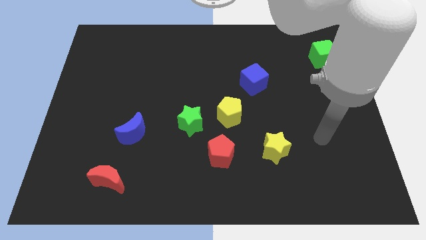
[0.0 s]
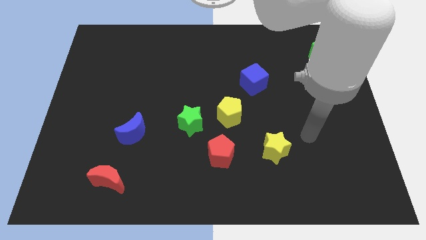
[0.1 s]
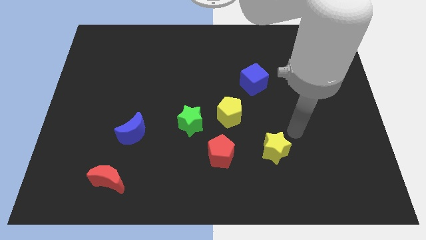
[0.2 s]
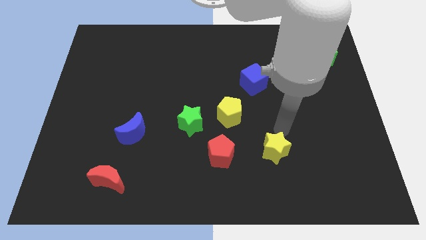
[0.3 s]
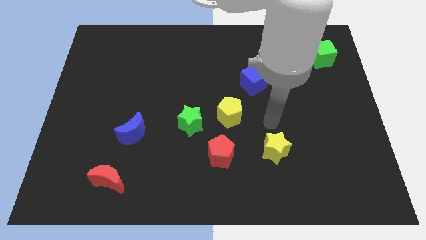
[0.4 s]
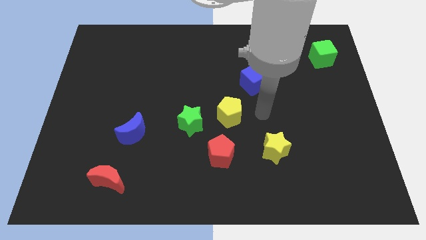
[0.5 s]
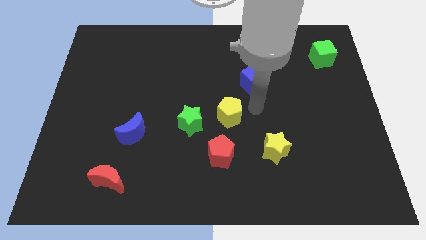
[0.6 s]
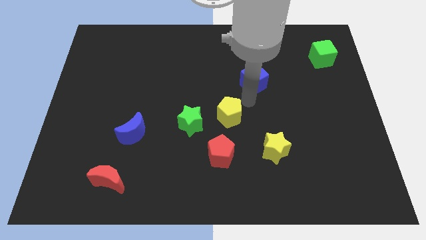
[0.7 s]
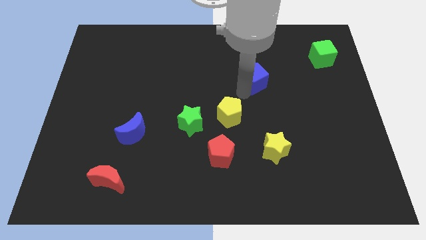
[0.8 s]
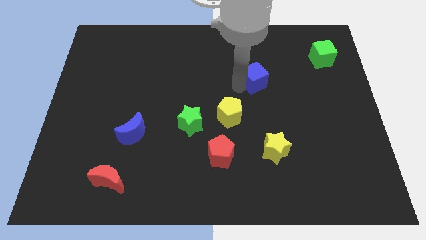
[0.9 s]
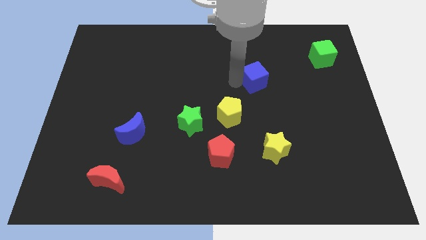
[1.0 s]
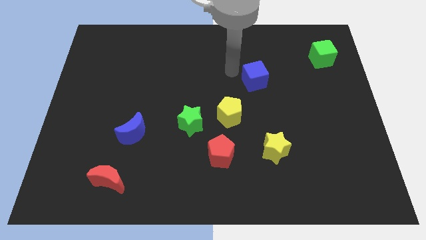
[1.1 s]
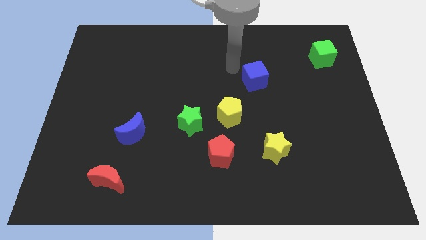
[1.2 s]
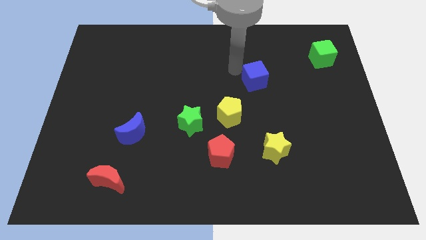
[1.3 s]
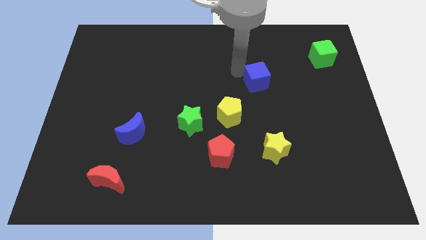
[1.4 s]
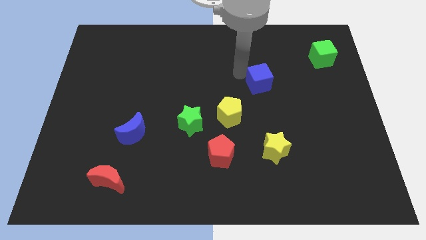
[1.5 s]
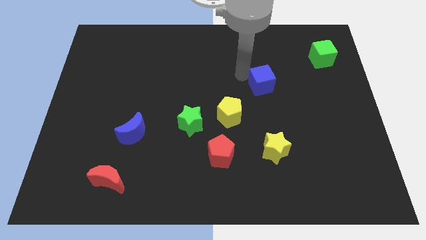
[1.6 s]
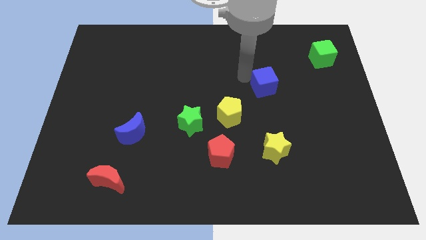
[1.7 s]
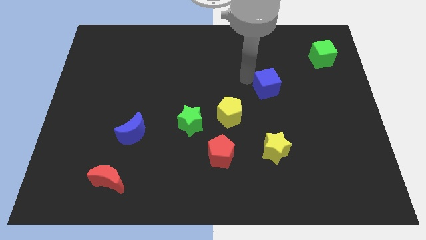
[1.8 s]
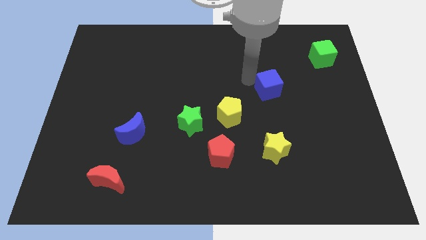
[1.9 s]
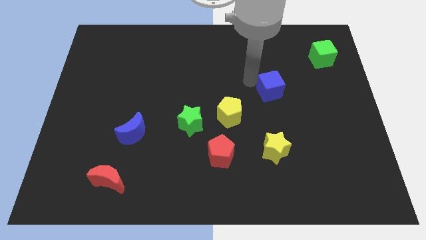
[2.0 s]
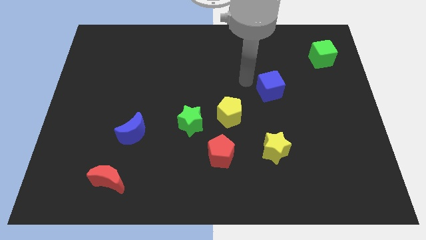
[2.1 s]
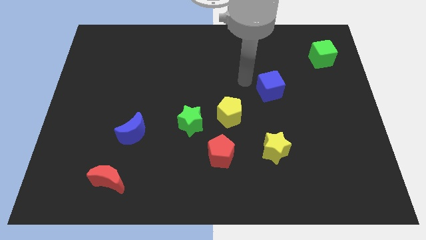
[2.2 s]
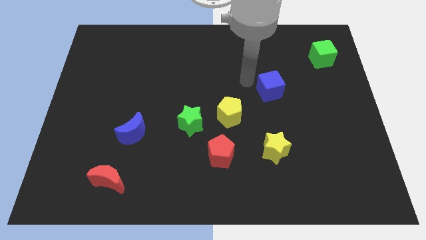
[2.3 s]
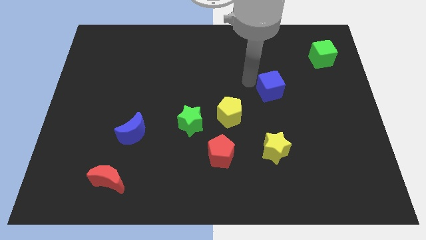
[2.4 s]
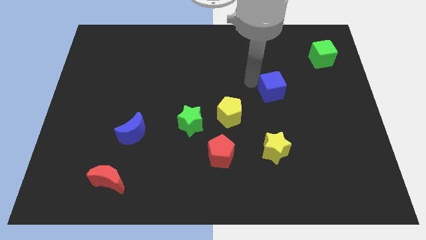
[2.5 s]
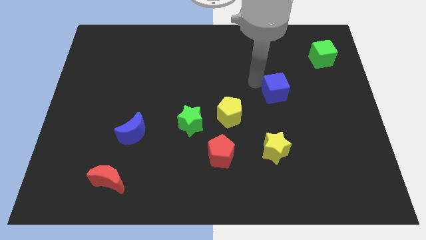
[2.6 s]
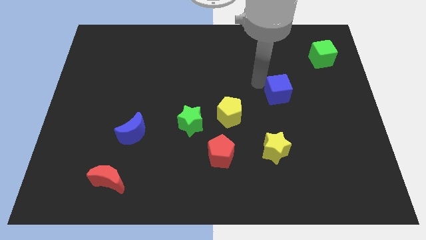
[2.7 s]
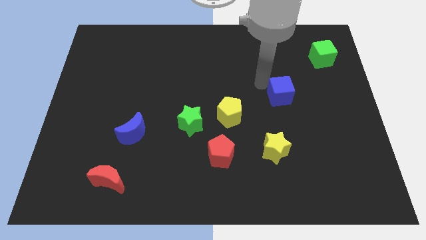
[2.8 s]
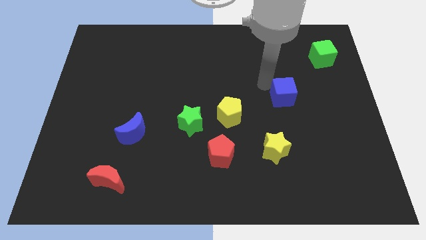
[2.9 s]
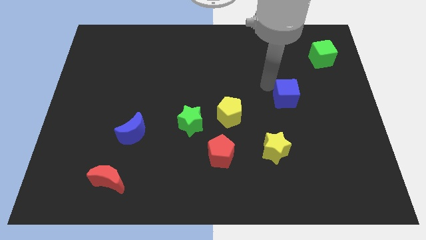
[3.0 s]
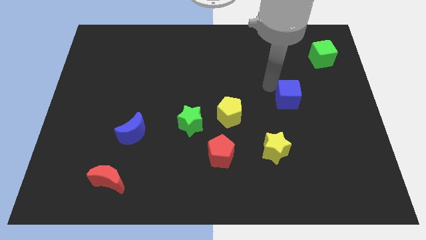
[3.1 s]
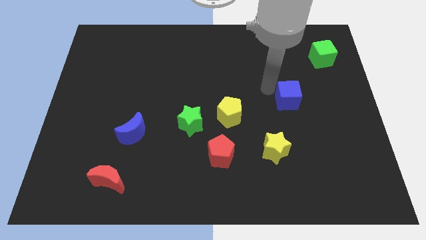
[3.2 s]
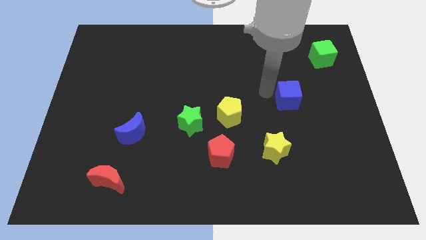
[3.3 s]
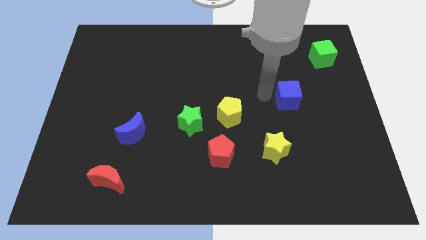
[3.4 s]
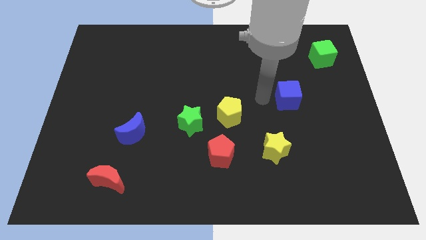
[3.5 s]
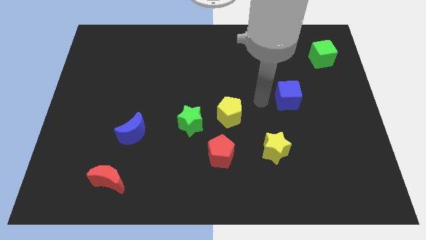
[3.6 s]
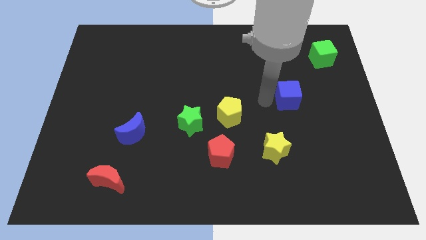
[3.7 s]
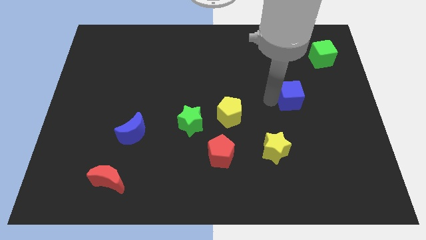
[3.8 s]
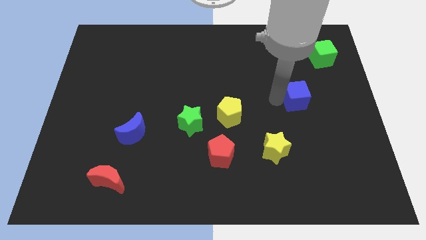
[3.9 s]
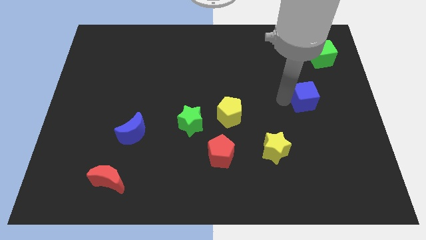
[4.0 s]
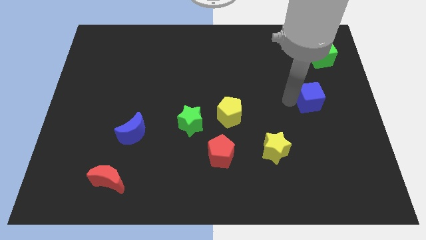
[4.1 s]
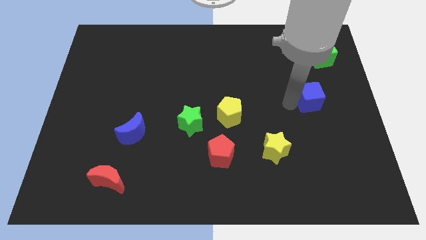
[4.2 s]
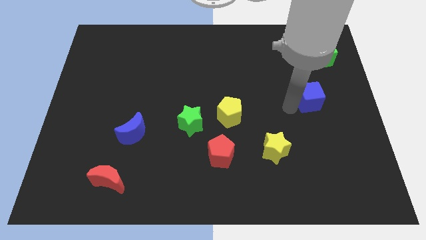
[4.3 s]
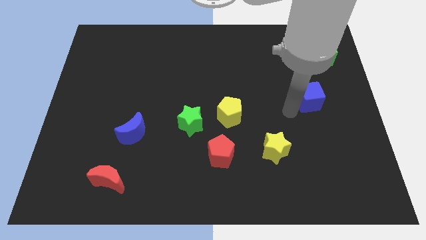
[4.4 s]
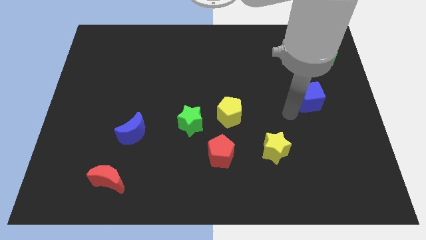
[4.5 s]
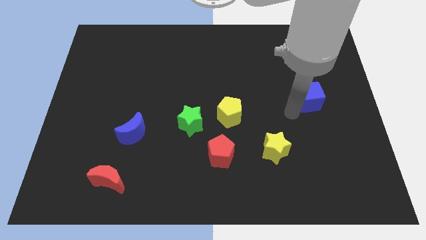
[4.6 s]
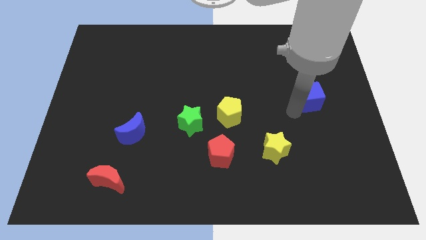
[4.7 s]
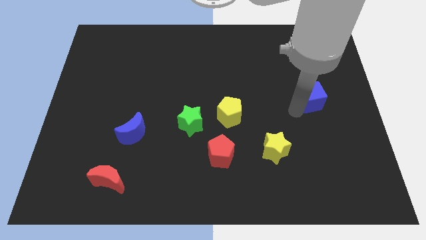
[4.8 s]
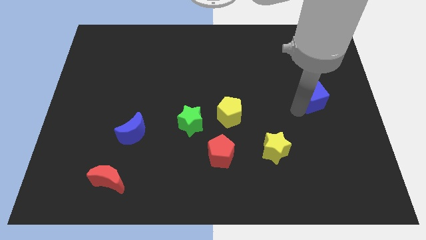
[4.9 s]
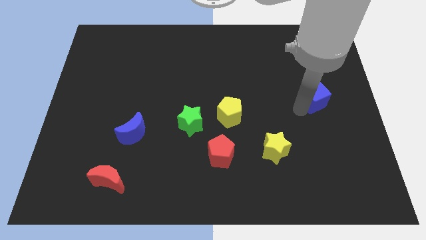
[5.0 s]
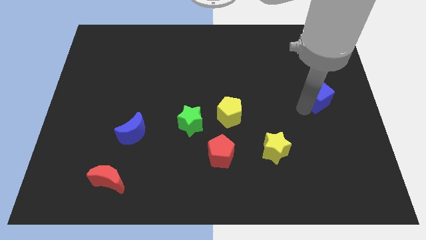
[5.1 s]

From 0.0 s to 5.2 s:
push the blue cube to the right side of the board

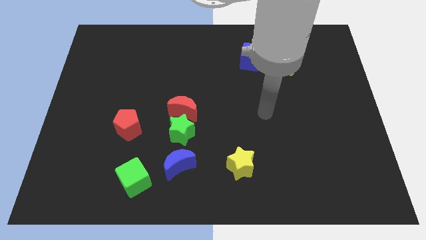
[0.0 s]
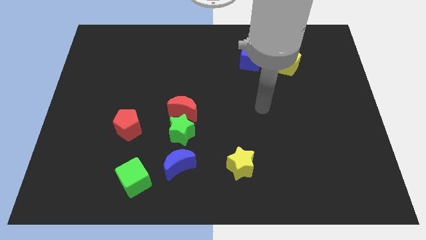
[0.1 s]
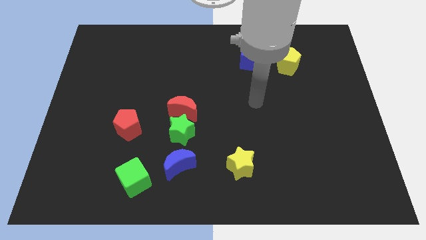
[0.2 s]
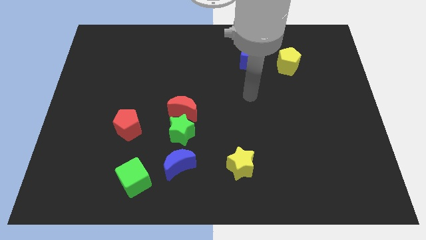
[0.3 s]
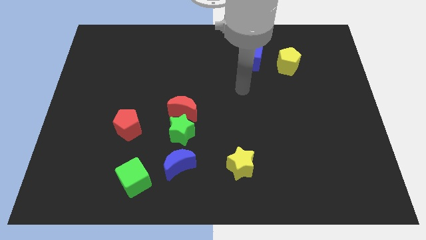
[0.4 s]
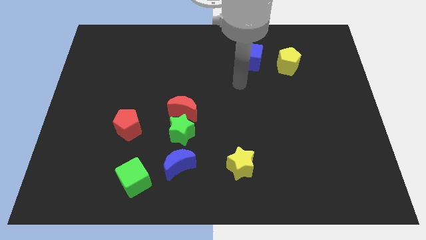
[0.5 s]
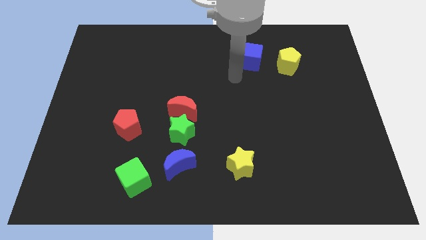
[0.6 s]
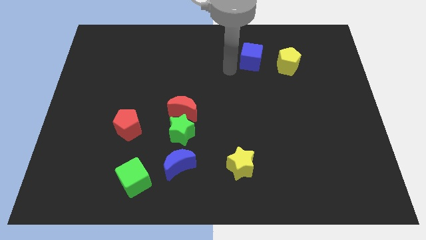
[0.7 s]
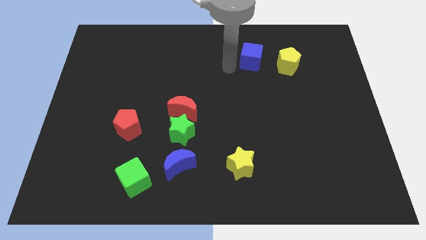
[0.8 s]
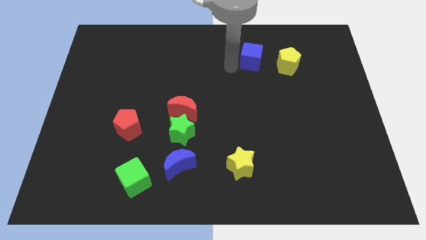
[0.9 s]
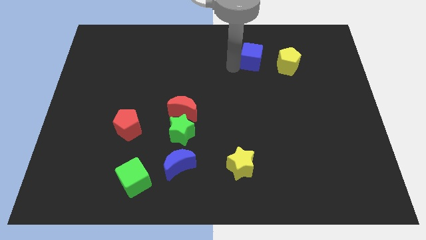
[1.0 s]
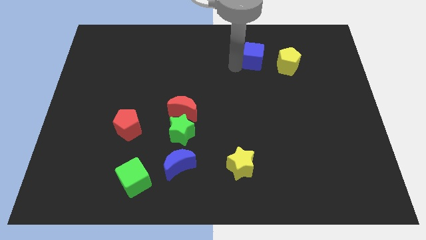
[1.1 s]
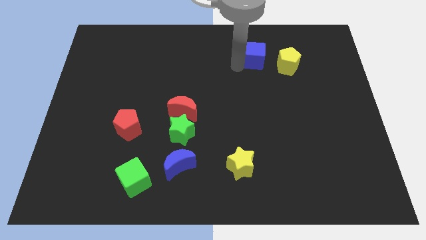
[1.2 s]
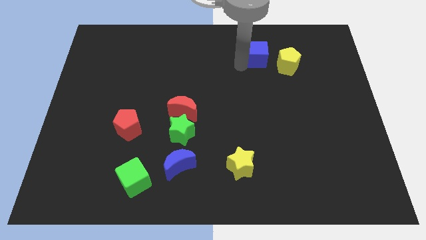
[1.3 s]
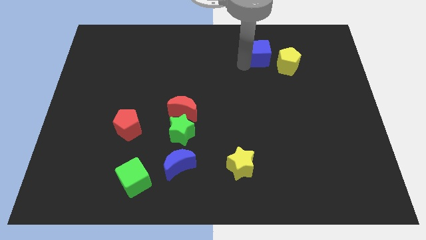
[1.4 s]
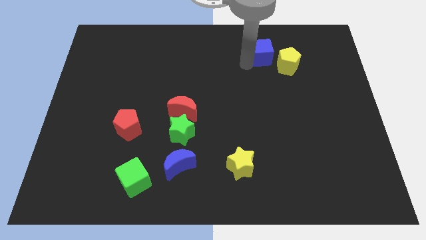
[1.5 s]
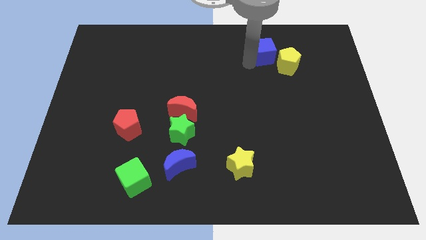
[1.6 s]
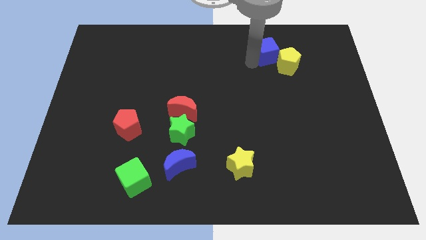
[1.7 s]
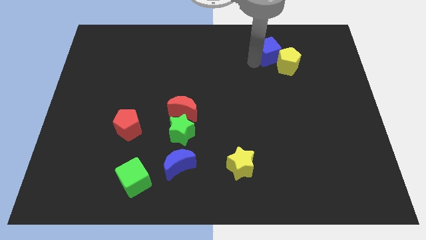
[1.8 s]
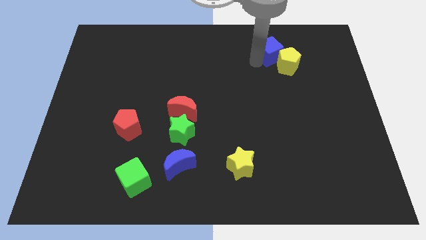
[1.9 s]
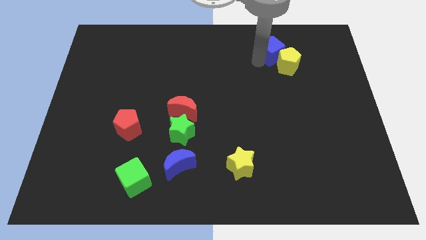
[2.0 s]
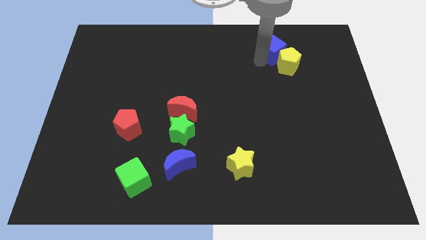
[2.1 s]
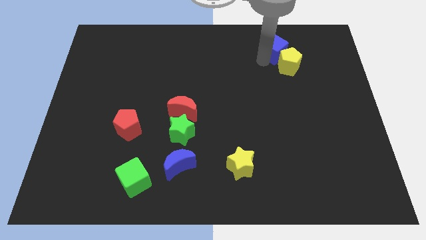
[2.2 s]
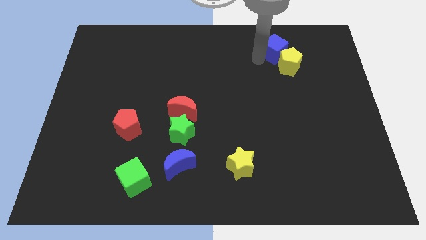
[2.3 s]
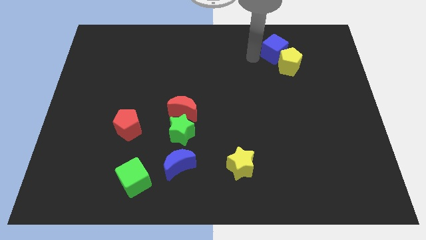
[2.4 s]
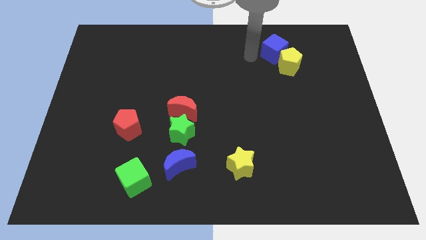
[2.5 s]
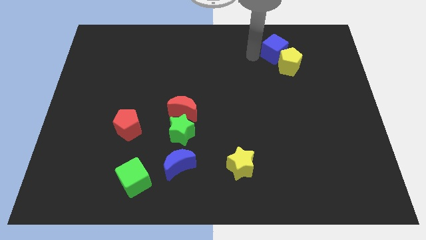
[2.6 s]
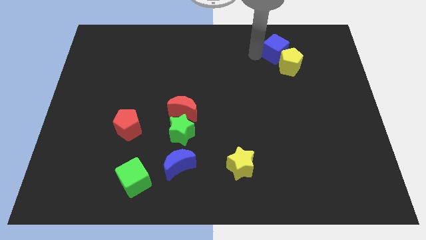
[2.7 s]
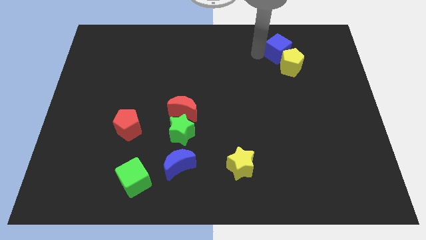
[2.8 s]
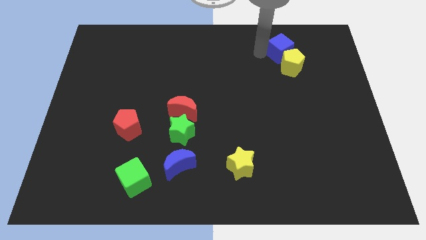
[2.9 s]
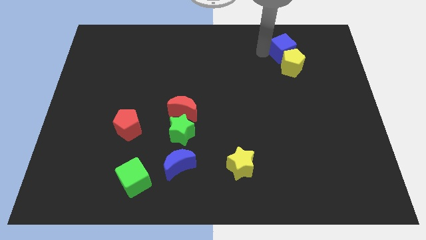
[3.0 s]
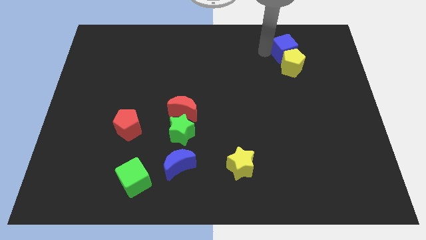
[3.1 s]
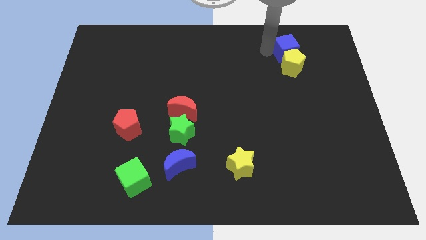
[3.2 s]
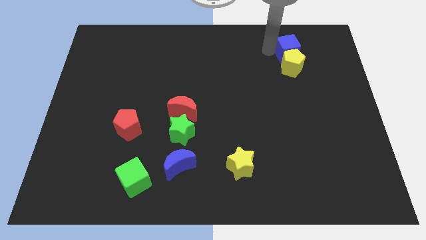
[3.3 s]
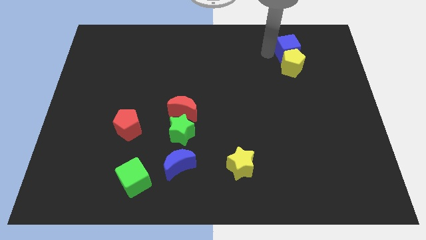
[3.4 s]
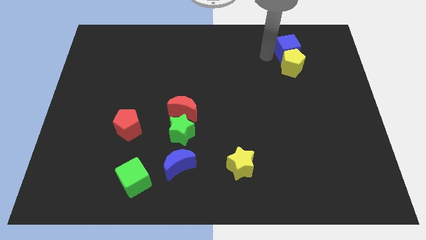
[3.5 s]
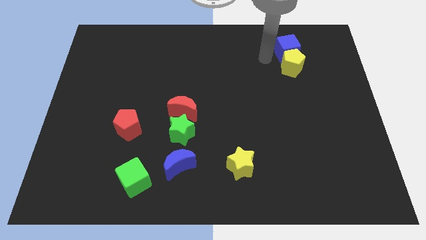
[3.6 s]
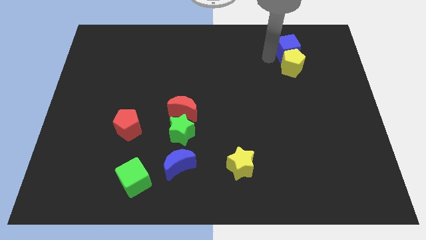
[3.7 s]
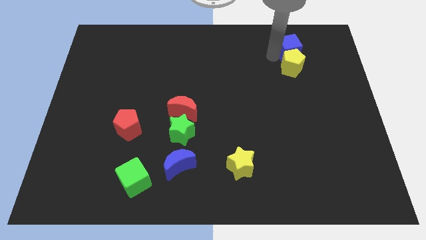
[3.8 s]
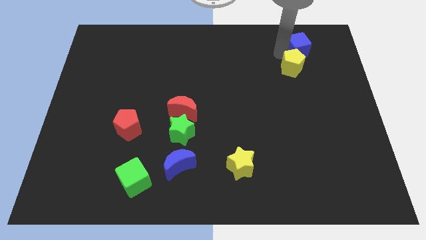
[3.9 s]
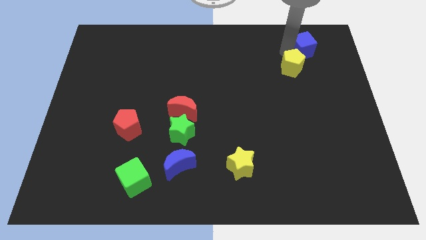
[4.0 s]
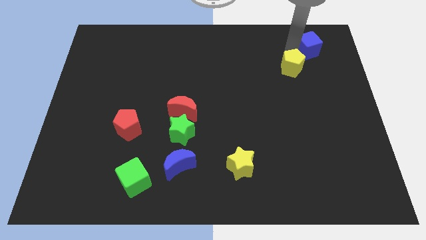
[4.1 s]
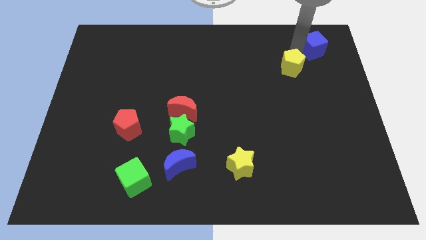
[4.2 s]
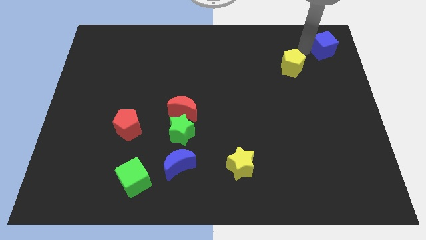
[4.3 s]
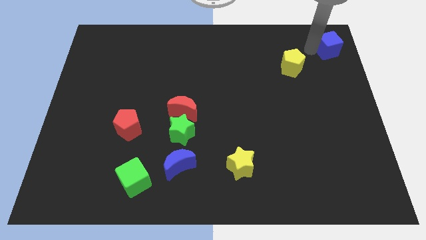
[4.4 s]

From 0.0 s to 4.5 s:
move the blue cube to the top right of the board
